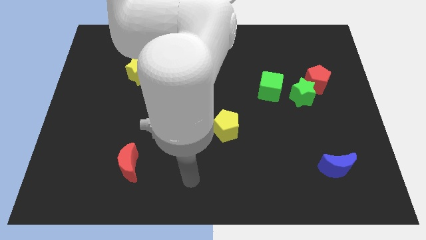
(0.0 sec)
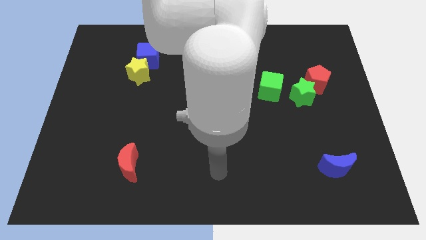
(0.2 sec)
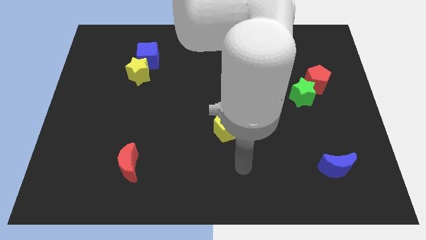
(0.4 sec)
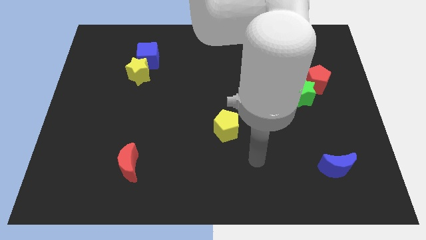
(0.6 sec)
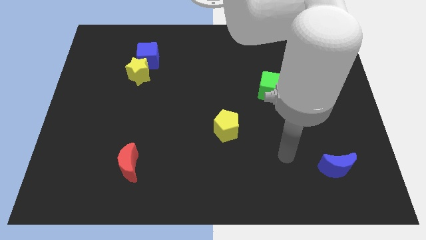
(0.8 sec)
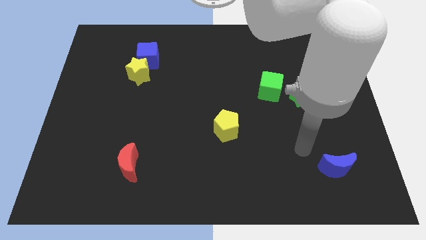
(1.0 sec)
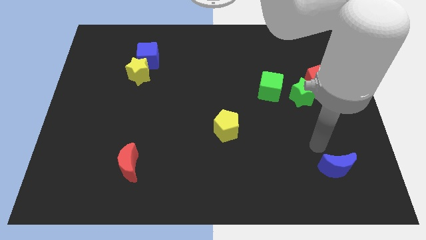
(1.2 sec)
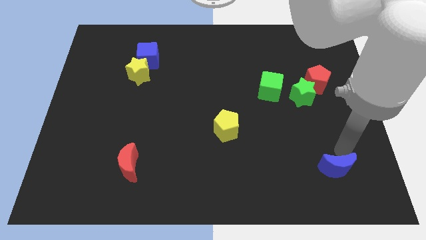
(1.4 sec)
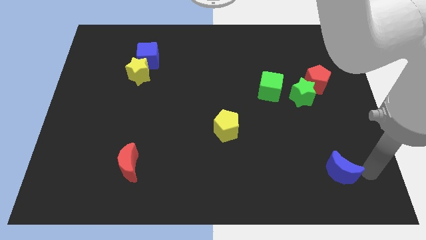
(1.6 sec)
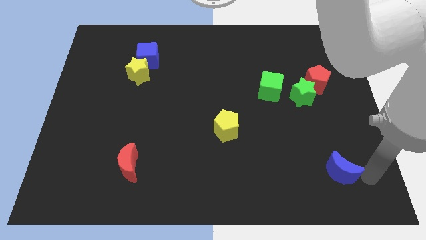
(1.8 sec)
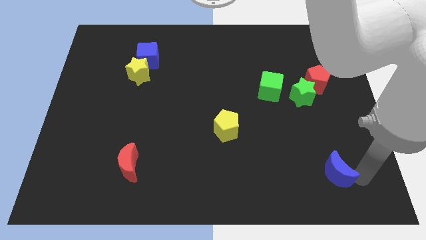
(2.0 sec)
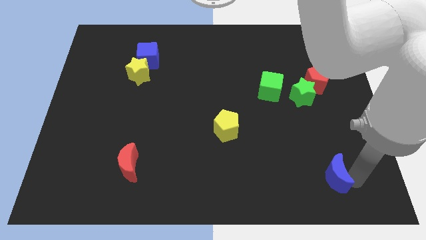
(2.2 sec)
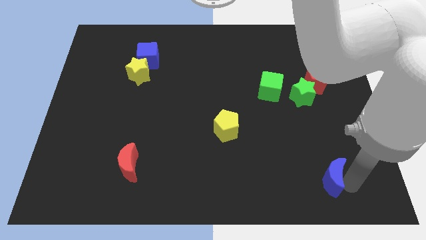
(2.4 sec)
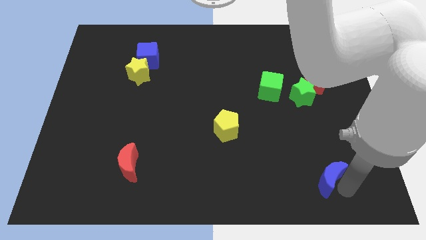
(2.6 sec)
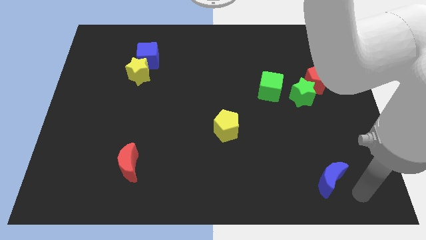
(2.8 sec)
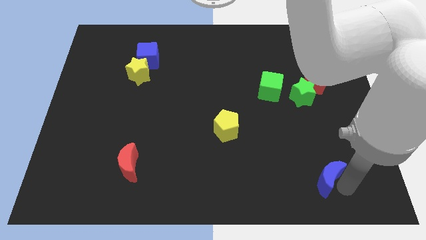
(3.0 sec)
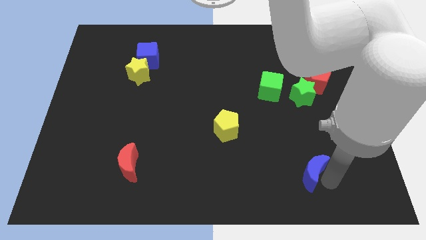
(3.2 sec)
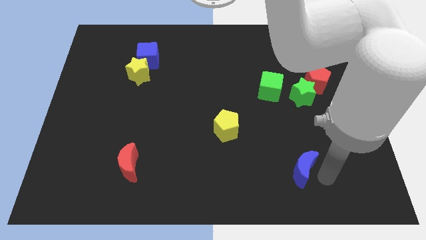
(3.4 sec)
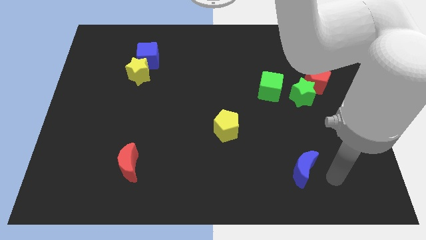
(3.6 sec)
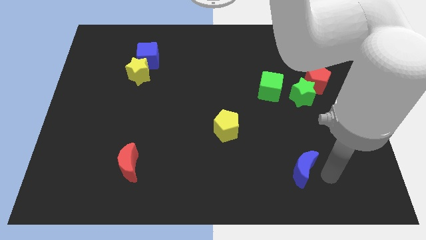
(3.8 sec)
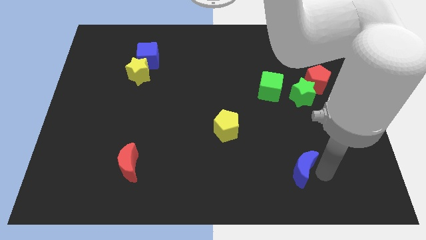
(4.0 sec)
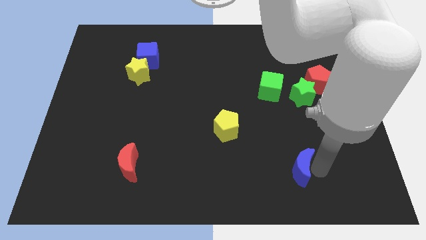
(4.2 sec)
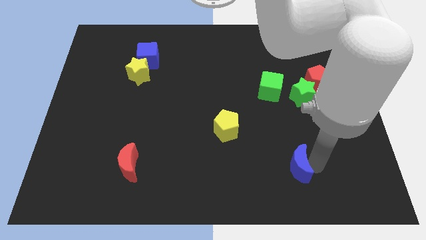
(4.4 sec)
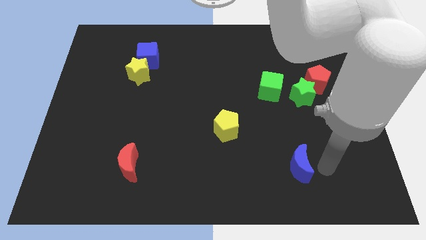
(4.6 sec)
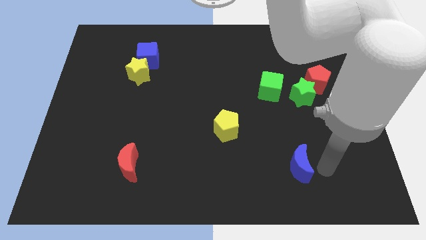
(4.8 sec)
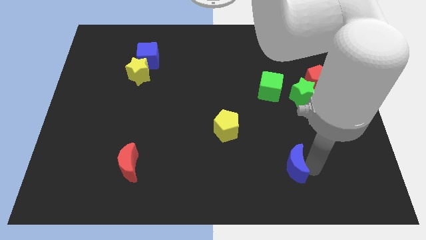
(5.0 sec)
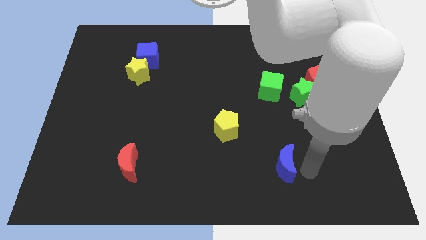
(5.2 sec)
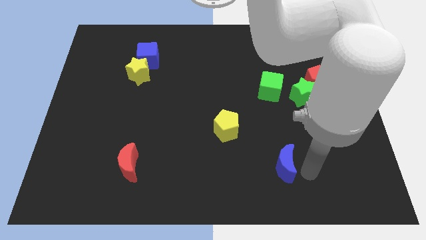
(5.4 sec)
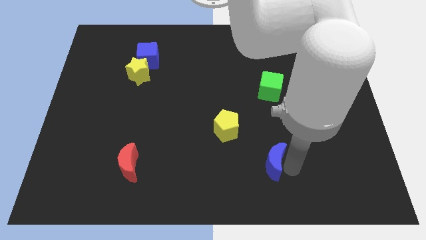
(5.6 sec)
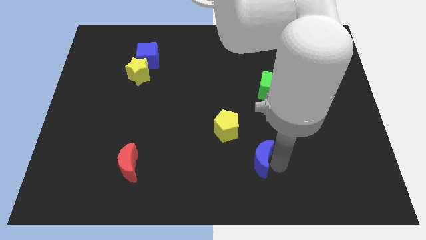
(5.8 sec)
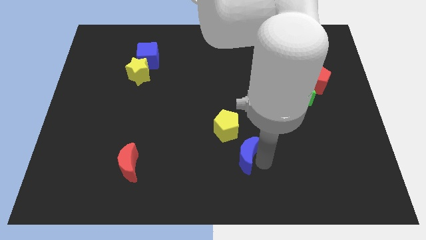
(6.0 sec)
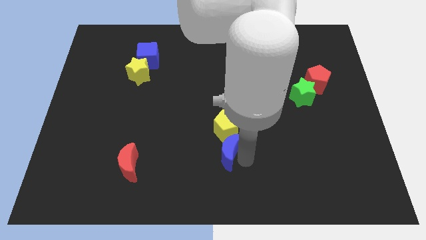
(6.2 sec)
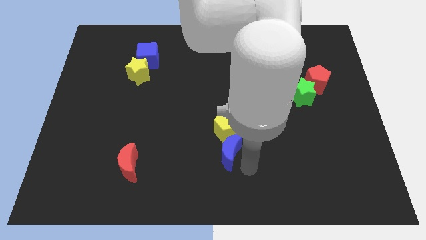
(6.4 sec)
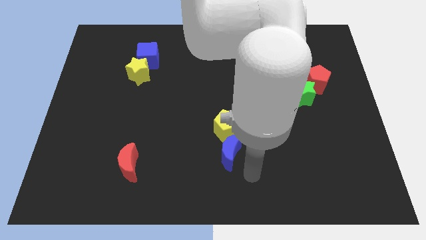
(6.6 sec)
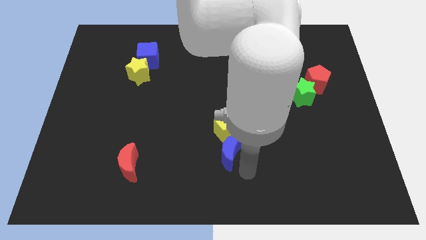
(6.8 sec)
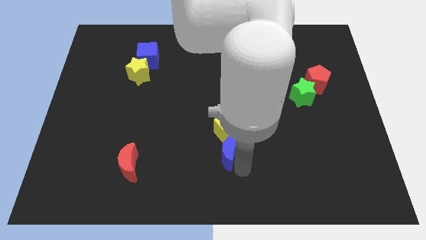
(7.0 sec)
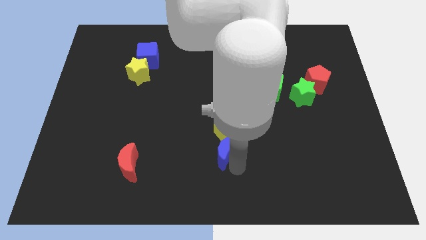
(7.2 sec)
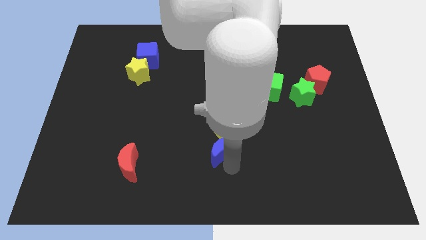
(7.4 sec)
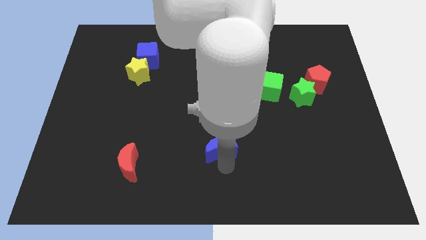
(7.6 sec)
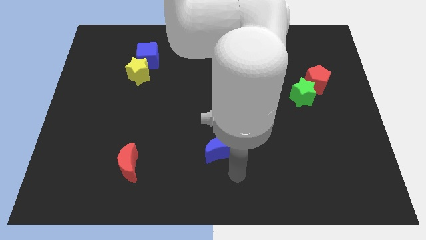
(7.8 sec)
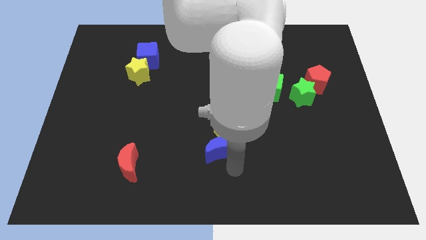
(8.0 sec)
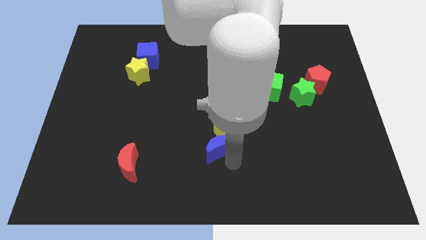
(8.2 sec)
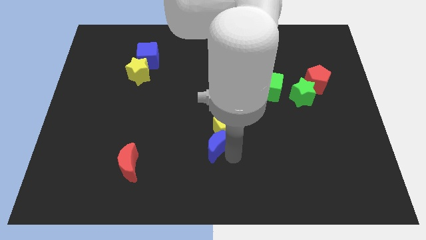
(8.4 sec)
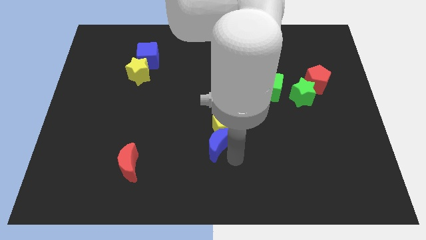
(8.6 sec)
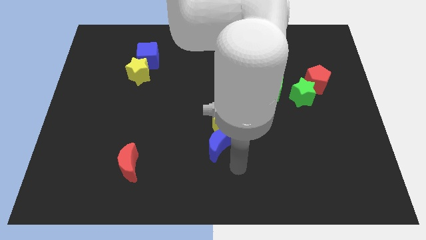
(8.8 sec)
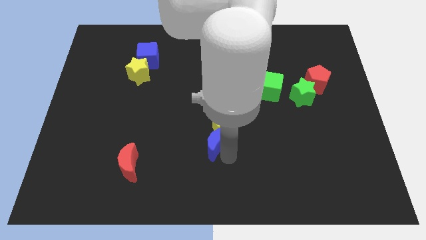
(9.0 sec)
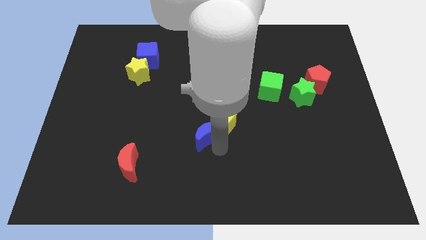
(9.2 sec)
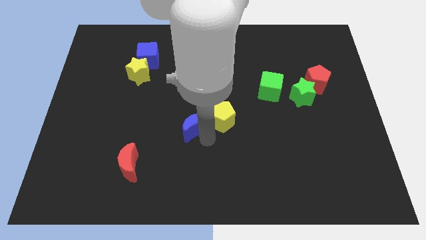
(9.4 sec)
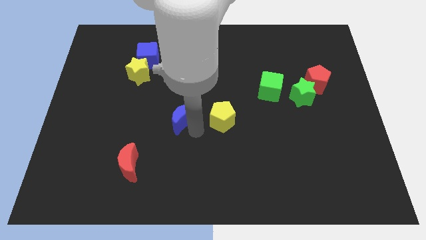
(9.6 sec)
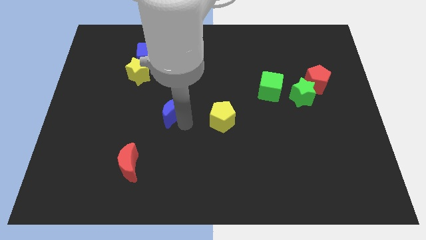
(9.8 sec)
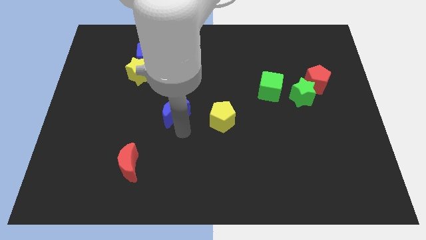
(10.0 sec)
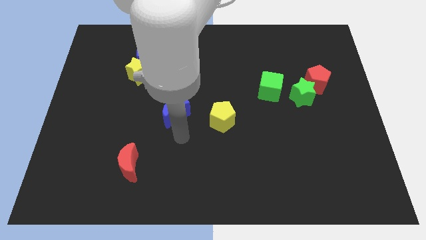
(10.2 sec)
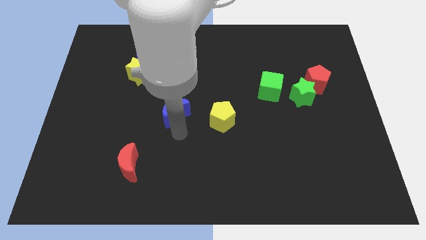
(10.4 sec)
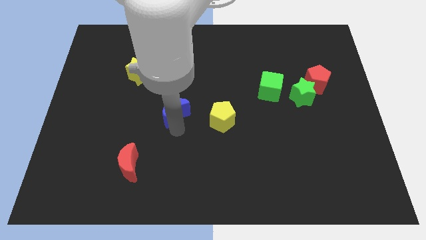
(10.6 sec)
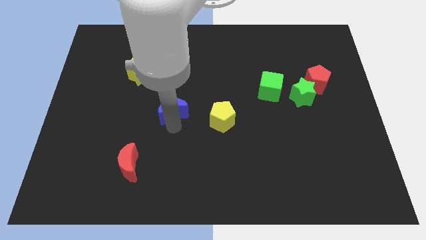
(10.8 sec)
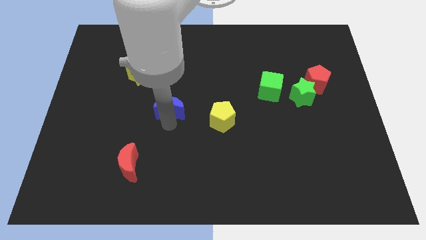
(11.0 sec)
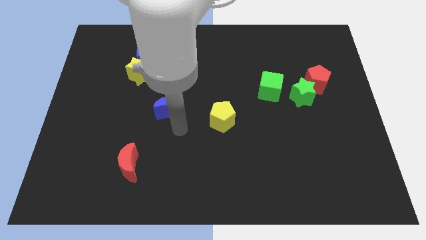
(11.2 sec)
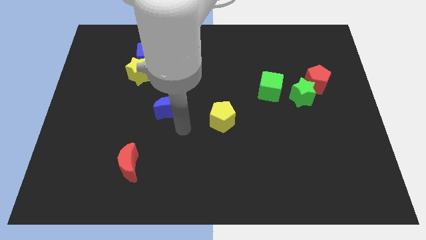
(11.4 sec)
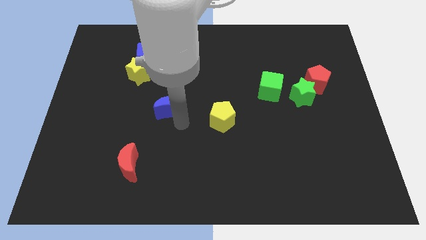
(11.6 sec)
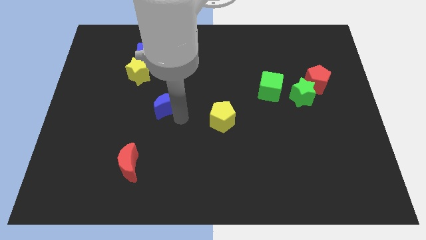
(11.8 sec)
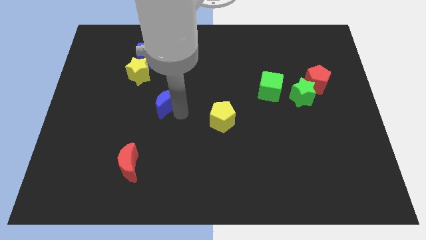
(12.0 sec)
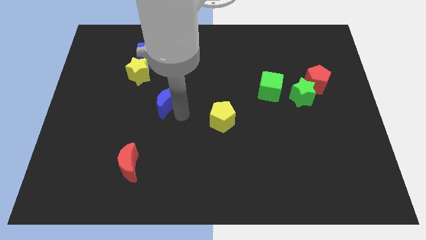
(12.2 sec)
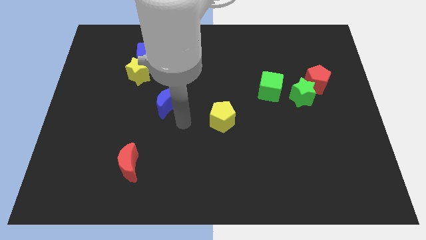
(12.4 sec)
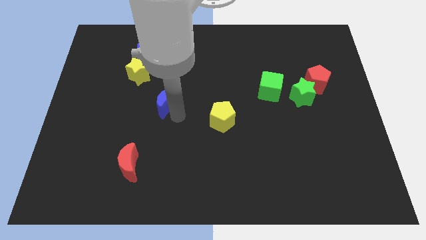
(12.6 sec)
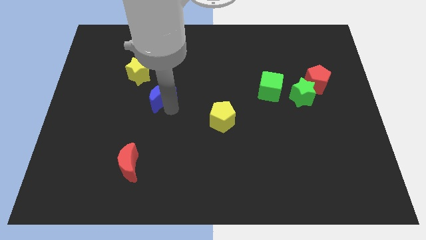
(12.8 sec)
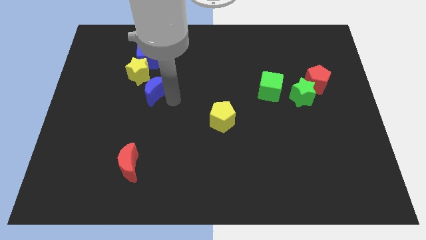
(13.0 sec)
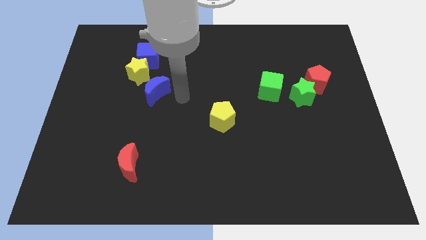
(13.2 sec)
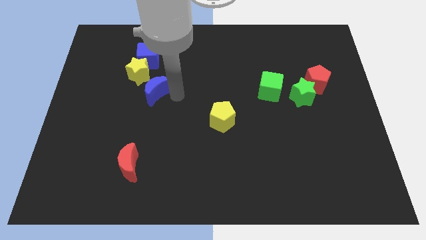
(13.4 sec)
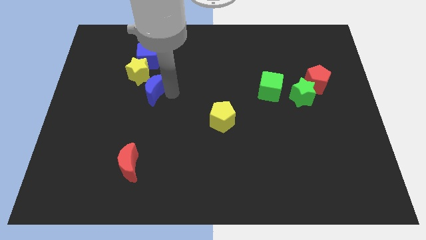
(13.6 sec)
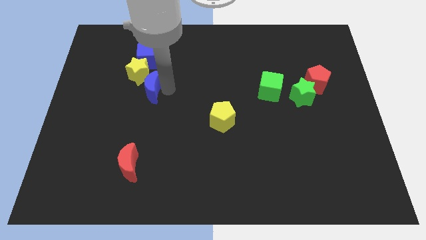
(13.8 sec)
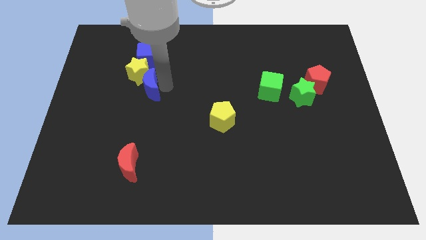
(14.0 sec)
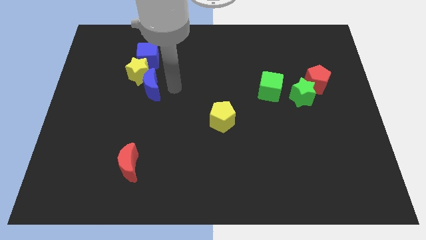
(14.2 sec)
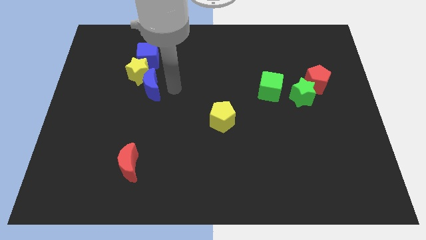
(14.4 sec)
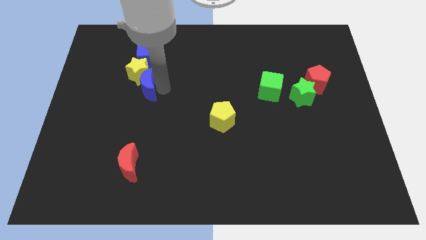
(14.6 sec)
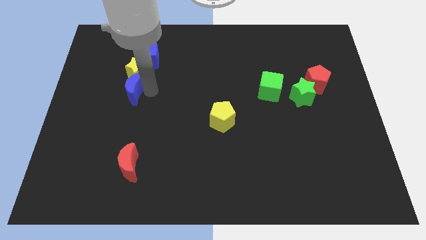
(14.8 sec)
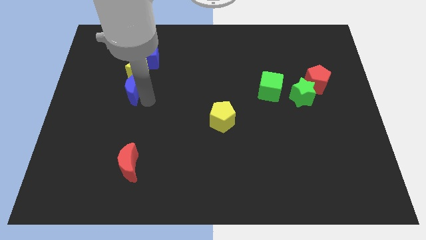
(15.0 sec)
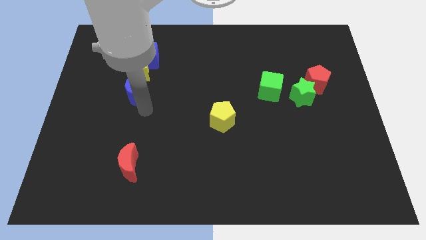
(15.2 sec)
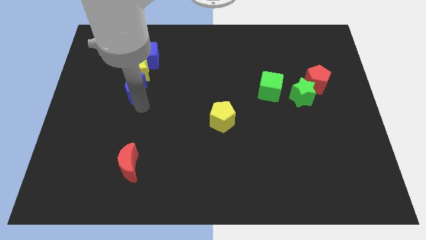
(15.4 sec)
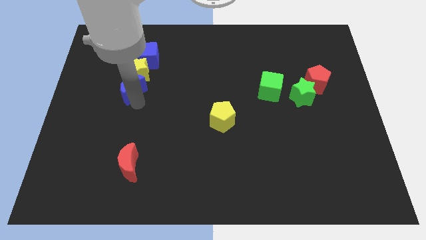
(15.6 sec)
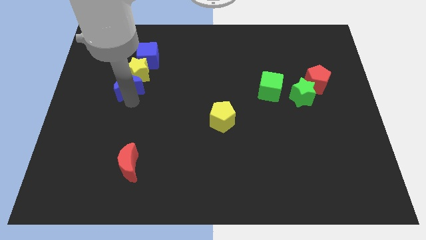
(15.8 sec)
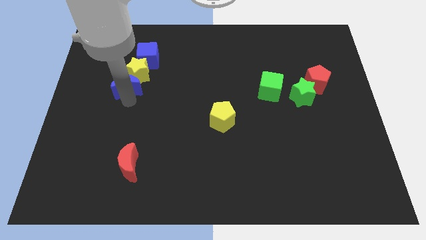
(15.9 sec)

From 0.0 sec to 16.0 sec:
move the blue moon to the bottom left of the blue cube
